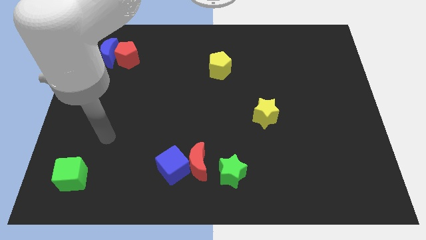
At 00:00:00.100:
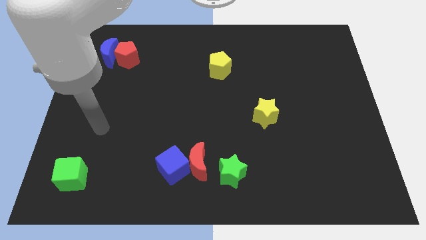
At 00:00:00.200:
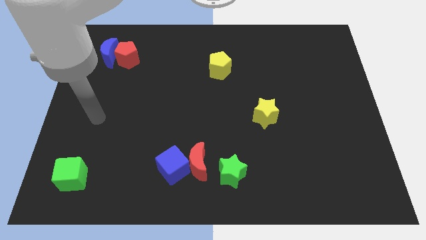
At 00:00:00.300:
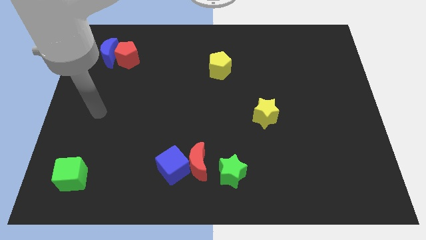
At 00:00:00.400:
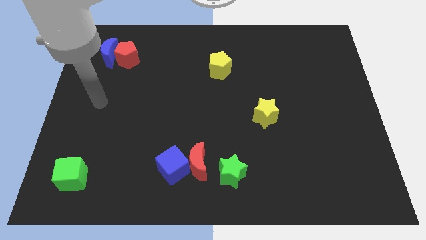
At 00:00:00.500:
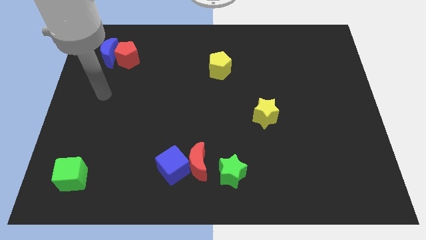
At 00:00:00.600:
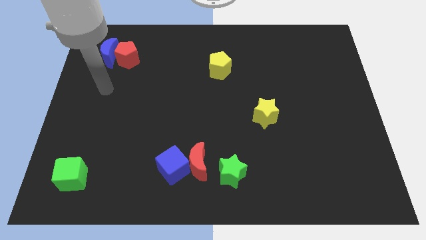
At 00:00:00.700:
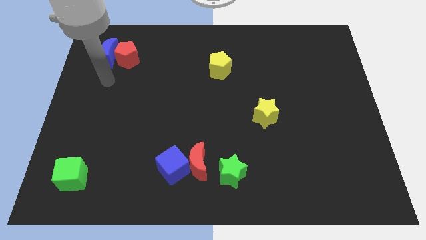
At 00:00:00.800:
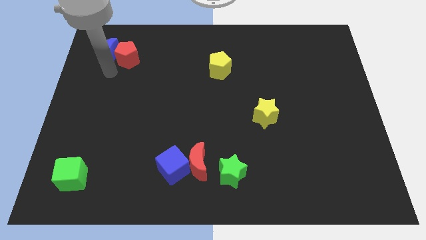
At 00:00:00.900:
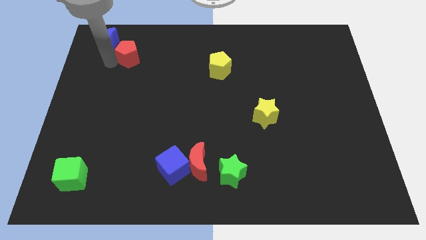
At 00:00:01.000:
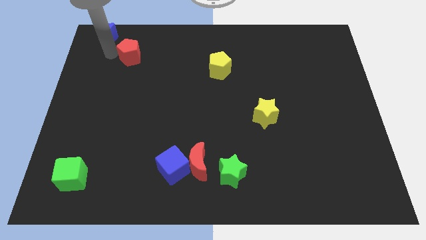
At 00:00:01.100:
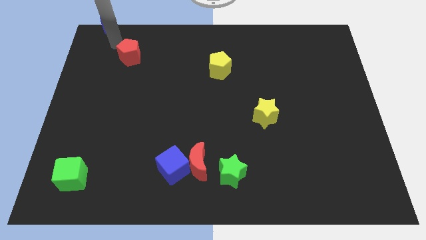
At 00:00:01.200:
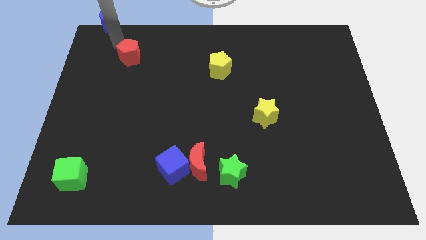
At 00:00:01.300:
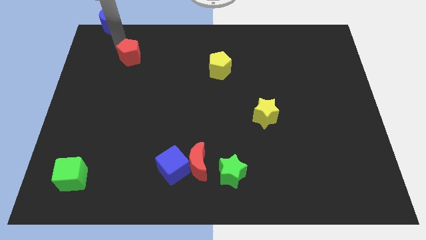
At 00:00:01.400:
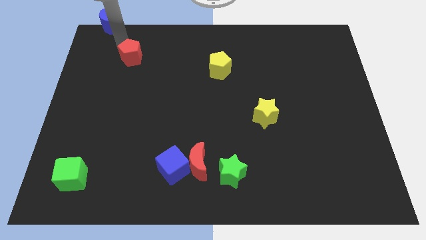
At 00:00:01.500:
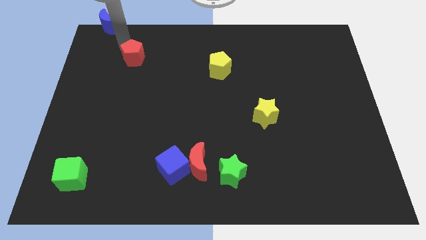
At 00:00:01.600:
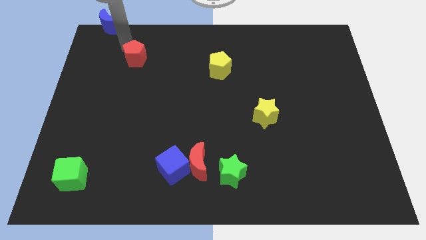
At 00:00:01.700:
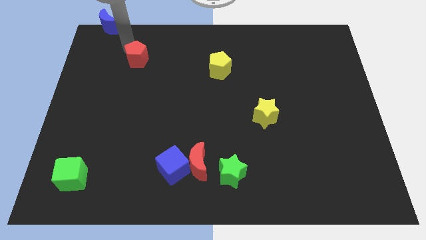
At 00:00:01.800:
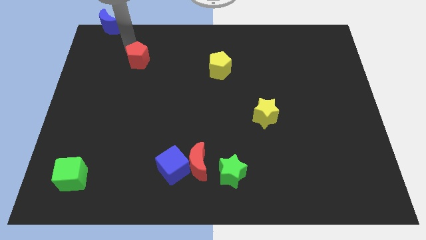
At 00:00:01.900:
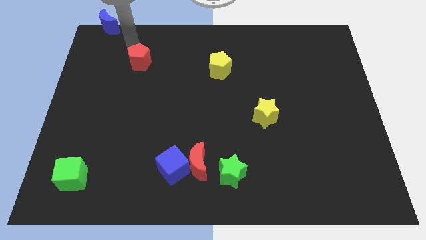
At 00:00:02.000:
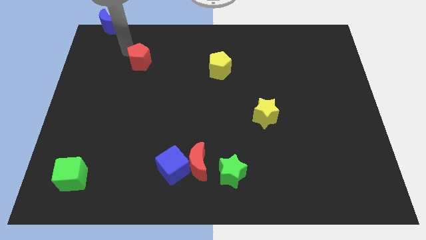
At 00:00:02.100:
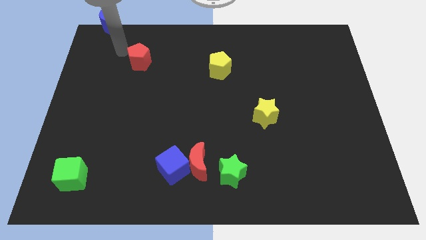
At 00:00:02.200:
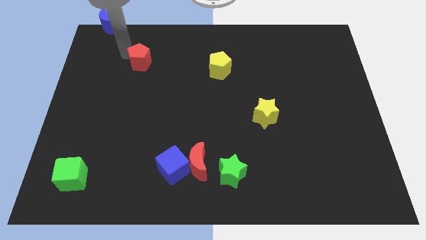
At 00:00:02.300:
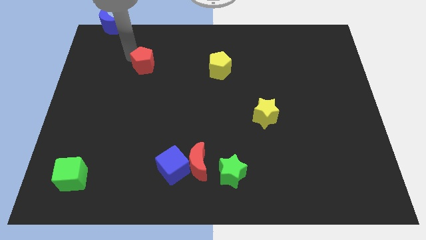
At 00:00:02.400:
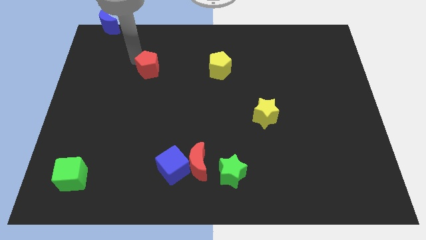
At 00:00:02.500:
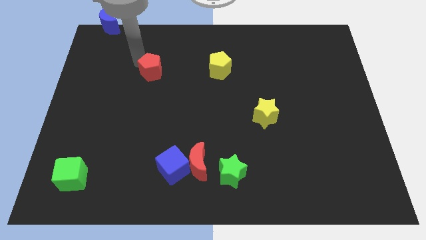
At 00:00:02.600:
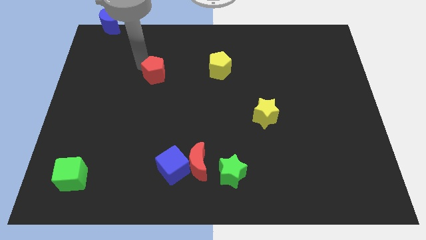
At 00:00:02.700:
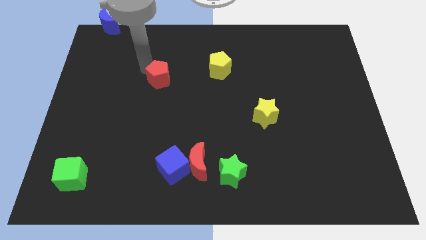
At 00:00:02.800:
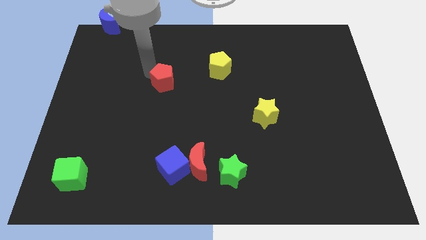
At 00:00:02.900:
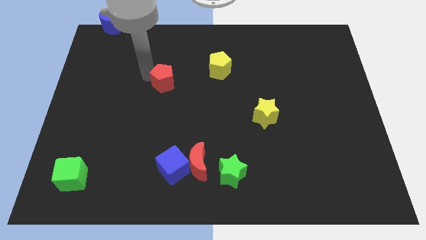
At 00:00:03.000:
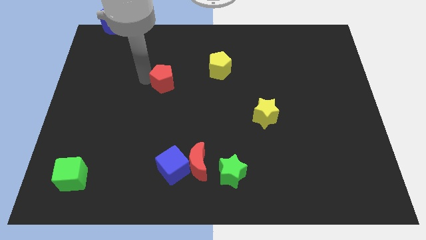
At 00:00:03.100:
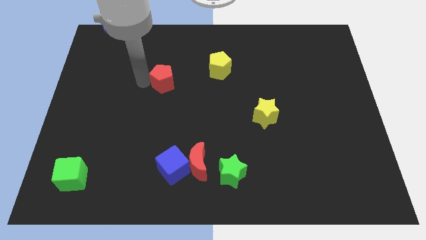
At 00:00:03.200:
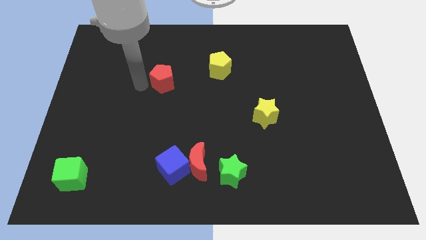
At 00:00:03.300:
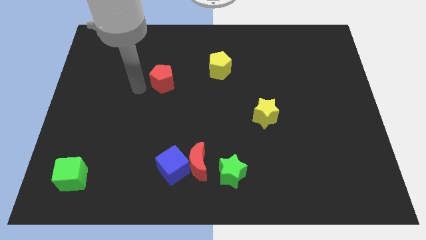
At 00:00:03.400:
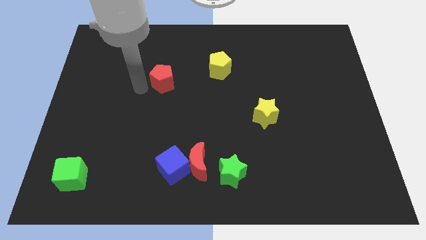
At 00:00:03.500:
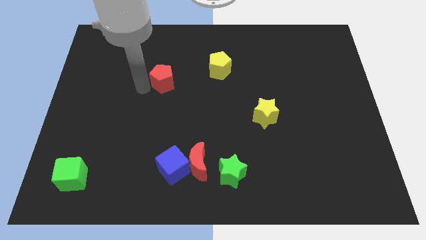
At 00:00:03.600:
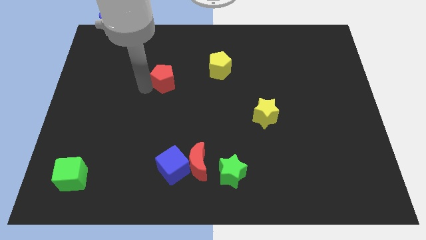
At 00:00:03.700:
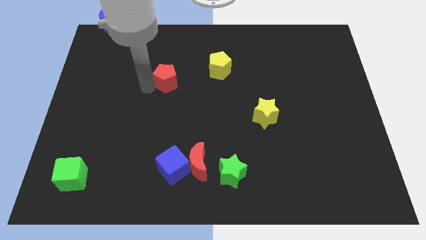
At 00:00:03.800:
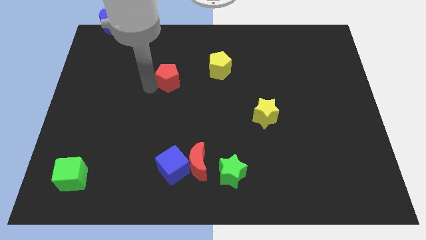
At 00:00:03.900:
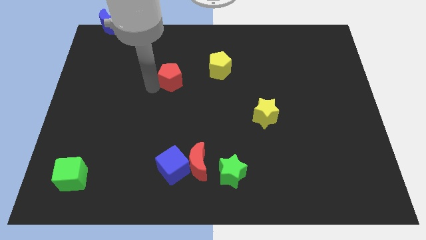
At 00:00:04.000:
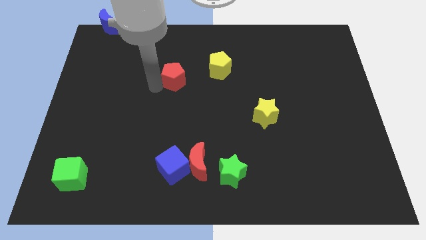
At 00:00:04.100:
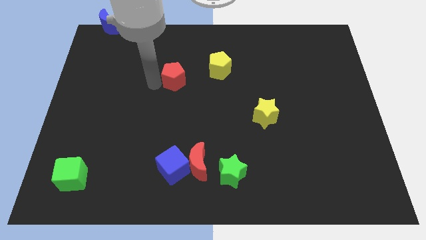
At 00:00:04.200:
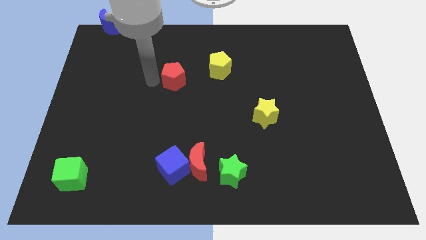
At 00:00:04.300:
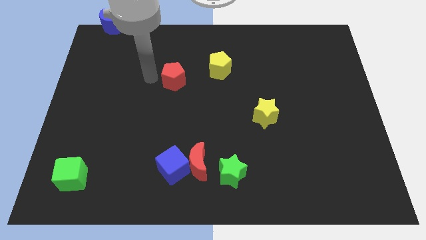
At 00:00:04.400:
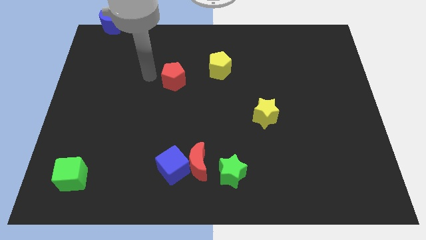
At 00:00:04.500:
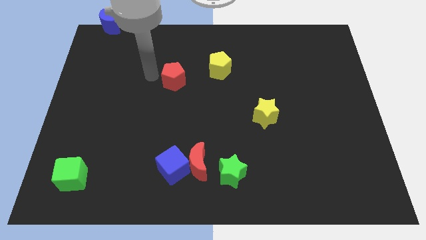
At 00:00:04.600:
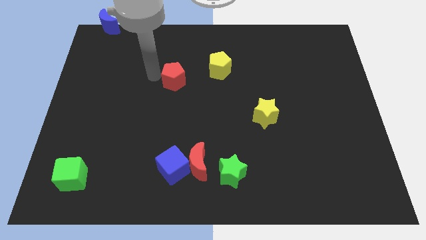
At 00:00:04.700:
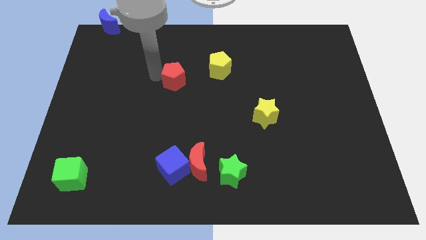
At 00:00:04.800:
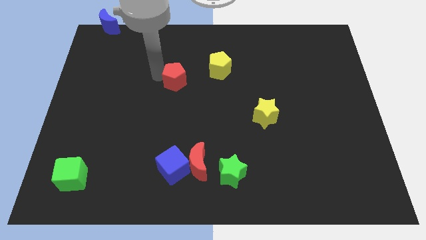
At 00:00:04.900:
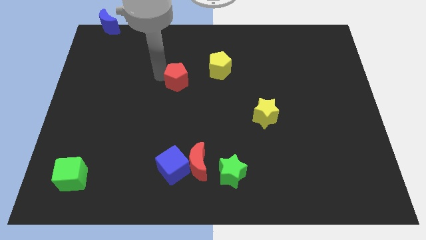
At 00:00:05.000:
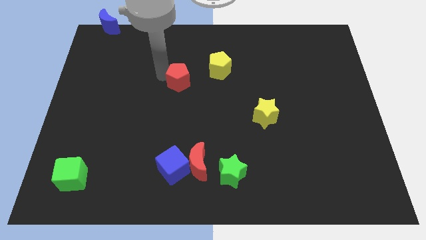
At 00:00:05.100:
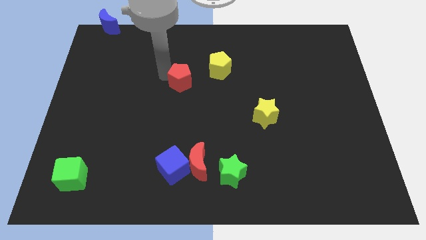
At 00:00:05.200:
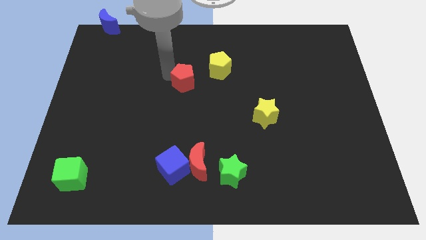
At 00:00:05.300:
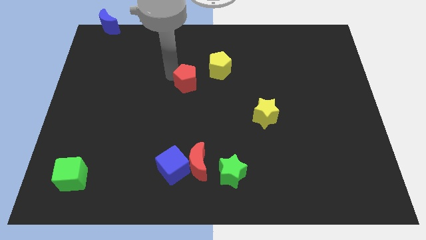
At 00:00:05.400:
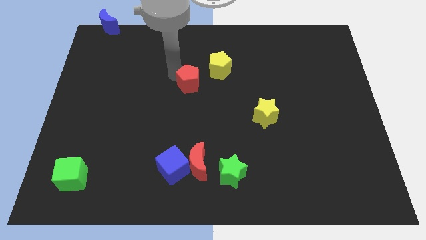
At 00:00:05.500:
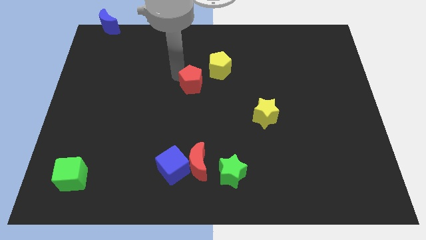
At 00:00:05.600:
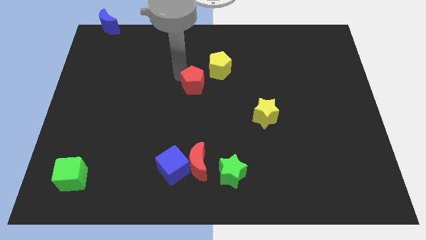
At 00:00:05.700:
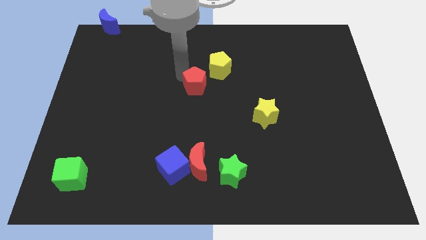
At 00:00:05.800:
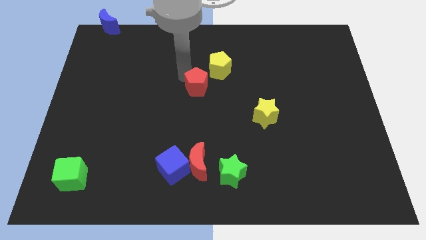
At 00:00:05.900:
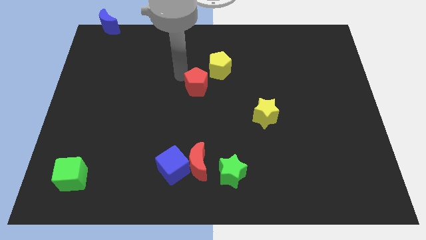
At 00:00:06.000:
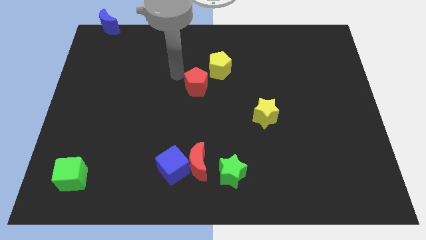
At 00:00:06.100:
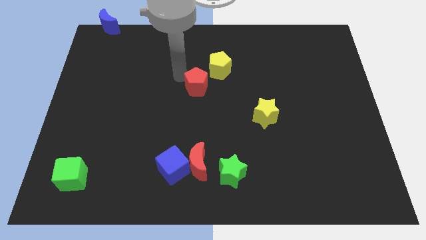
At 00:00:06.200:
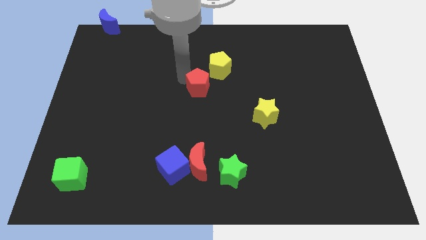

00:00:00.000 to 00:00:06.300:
push the red pentagon to the bottom of the yellow pentagon

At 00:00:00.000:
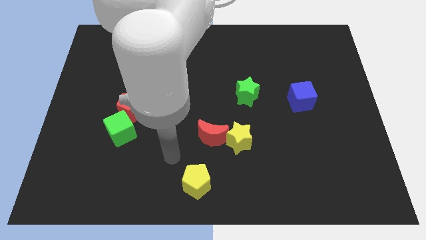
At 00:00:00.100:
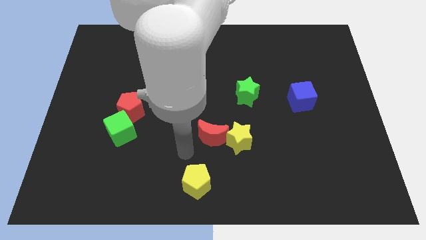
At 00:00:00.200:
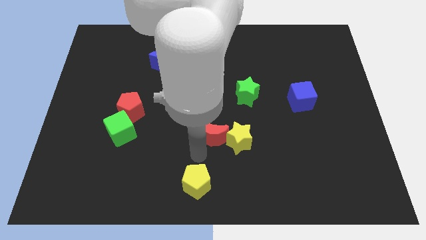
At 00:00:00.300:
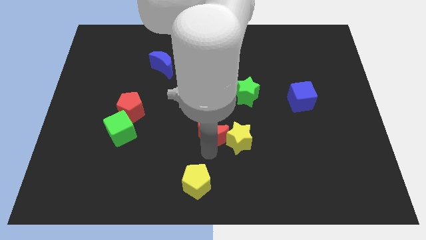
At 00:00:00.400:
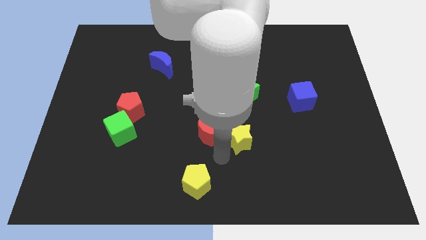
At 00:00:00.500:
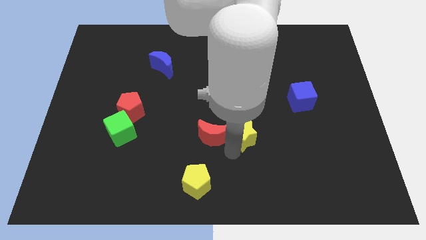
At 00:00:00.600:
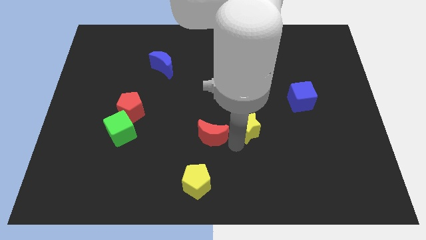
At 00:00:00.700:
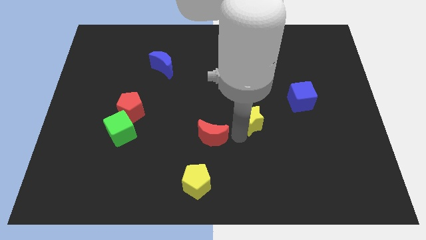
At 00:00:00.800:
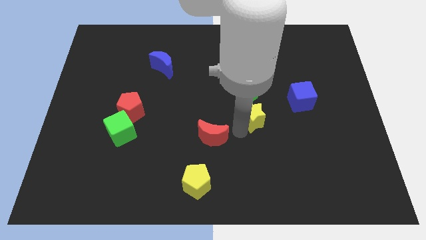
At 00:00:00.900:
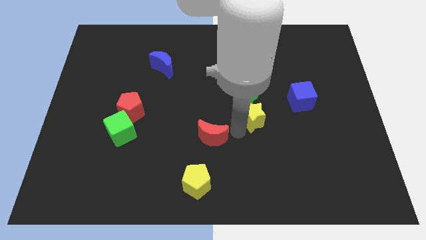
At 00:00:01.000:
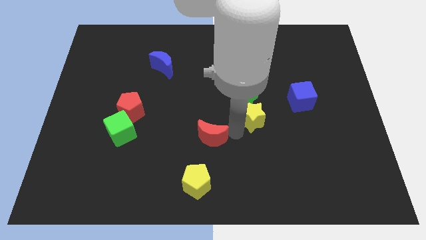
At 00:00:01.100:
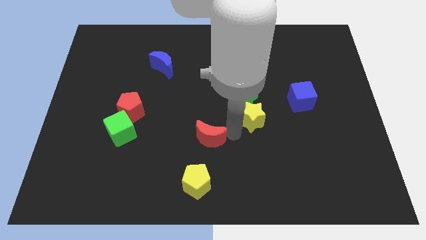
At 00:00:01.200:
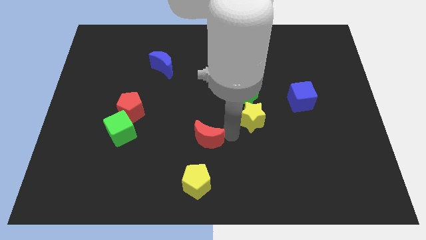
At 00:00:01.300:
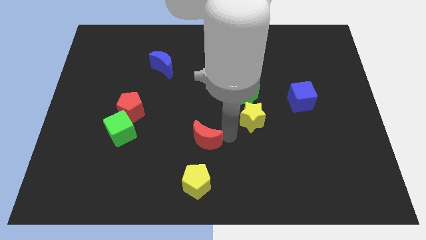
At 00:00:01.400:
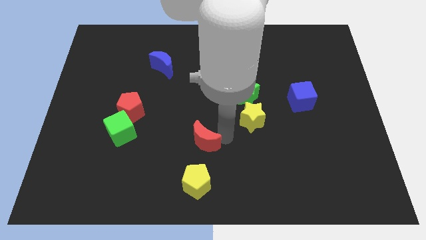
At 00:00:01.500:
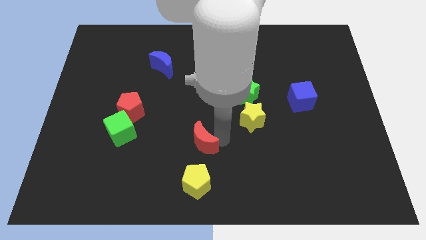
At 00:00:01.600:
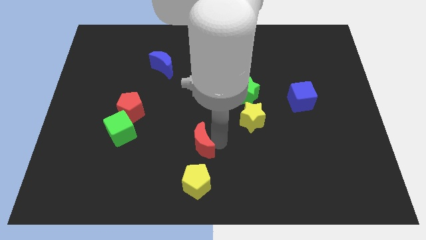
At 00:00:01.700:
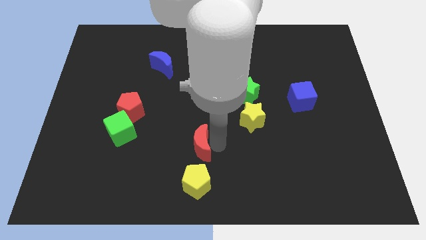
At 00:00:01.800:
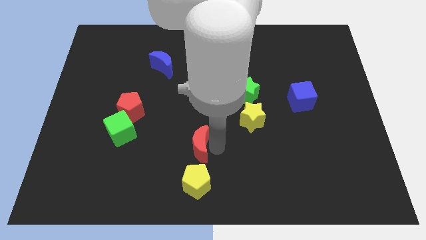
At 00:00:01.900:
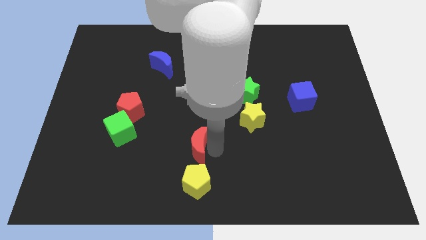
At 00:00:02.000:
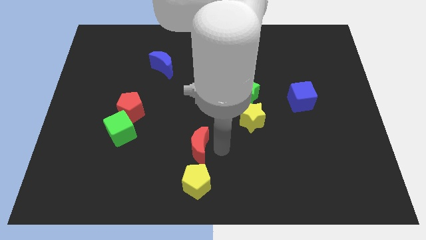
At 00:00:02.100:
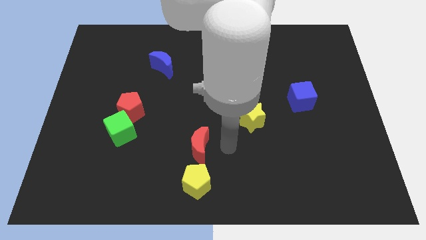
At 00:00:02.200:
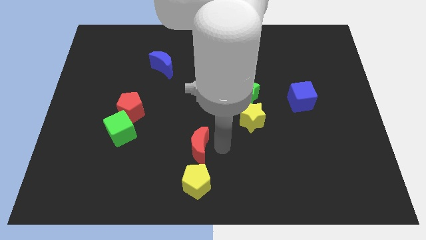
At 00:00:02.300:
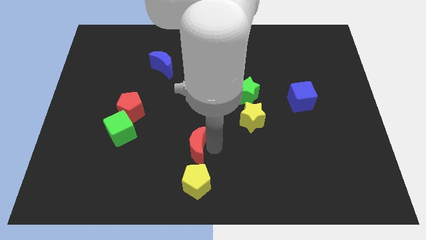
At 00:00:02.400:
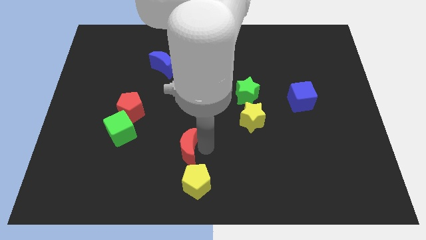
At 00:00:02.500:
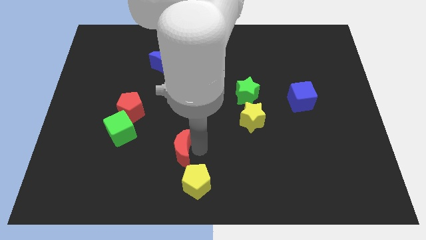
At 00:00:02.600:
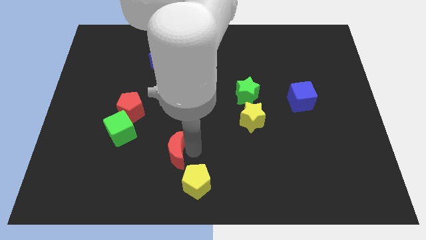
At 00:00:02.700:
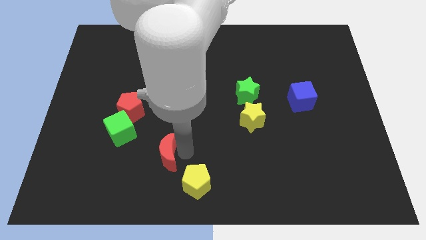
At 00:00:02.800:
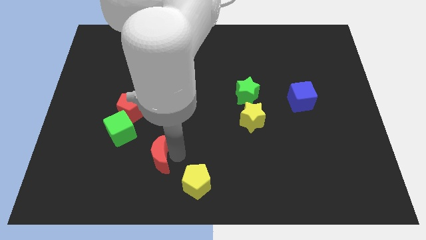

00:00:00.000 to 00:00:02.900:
slide the red moon diagonally down and to the right of the green cube
